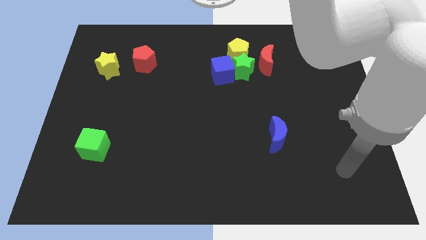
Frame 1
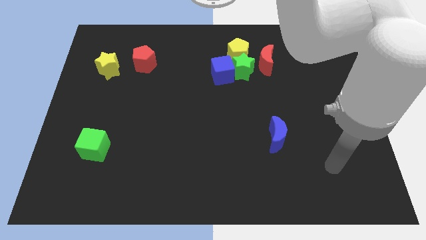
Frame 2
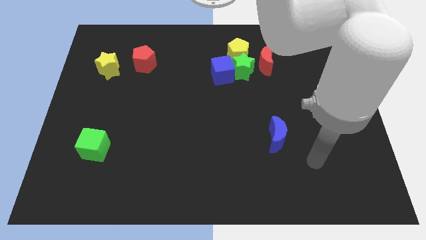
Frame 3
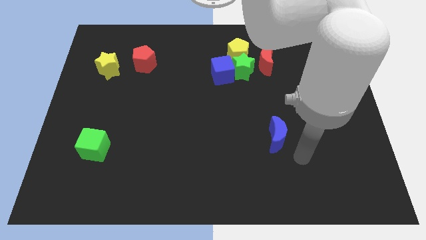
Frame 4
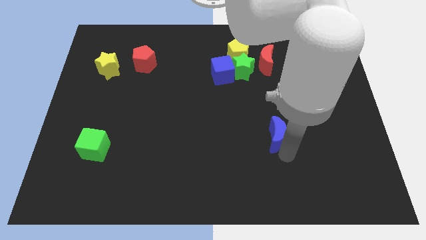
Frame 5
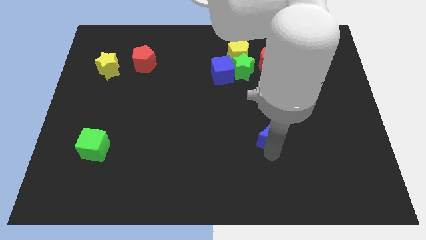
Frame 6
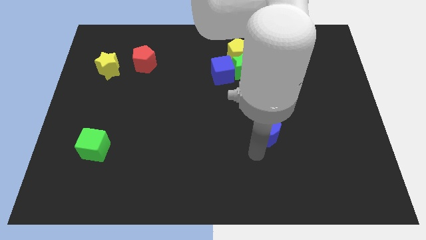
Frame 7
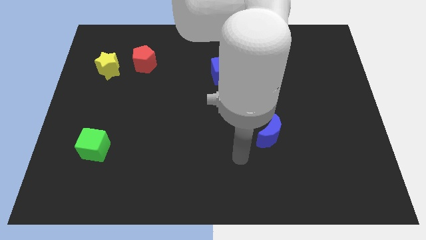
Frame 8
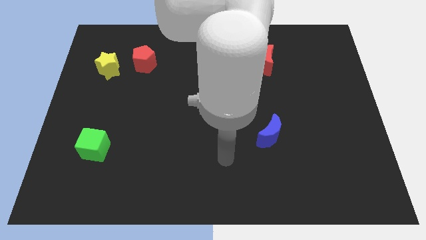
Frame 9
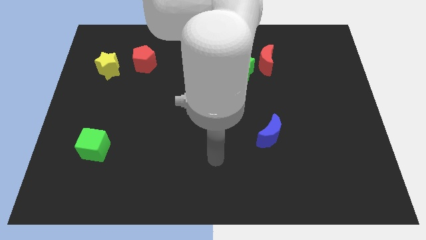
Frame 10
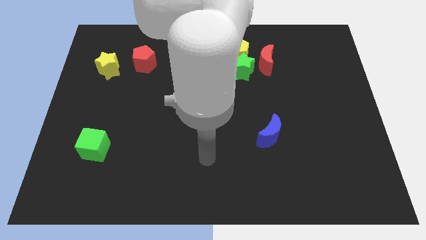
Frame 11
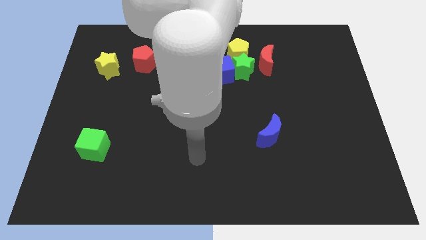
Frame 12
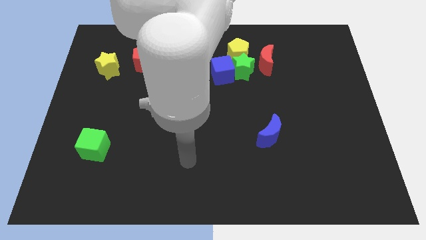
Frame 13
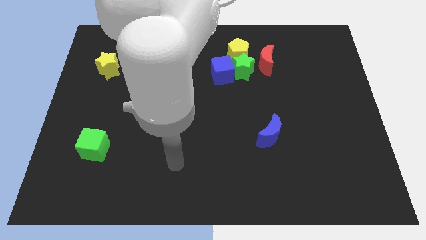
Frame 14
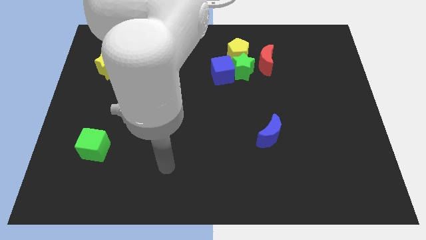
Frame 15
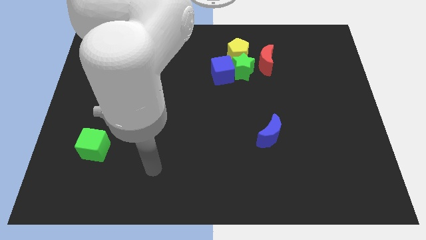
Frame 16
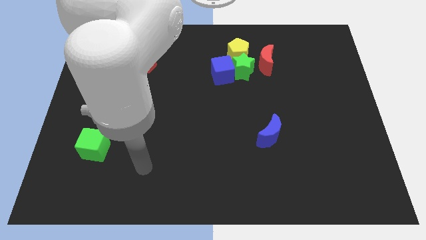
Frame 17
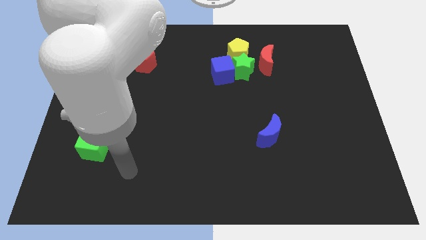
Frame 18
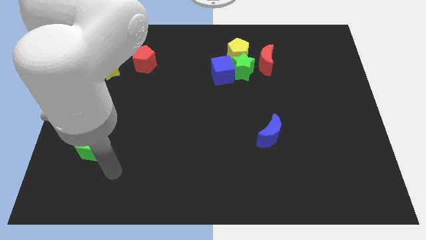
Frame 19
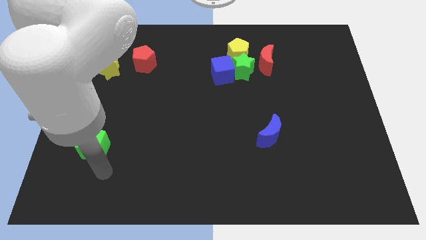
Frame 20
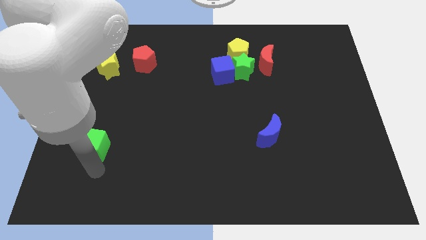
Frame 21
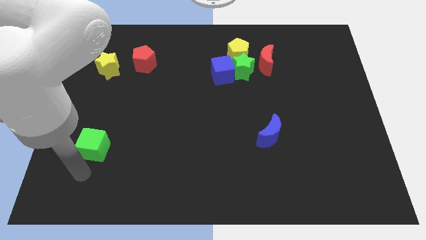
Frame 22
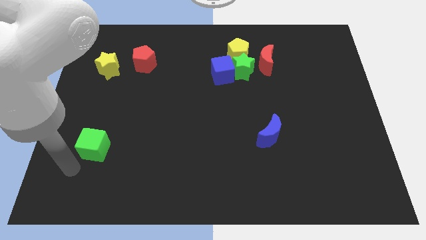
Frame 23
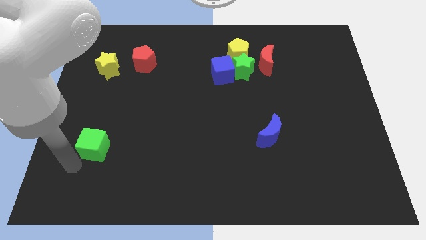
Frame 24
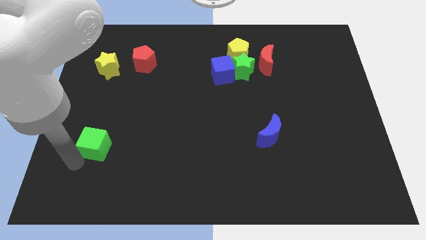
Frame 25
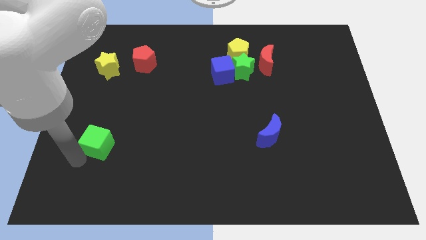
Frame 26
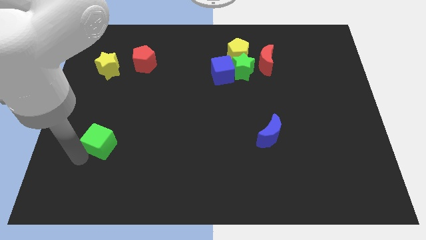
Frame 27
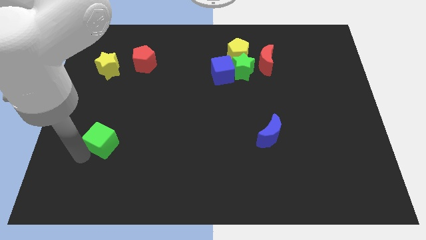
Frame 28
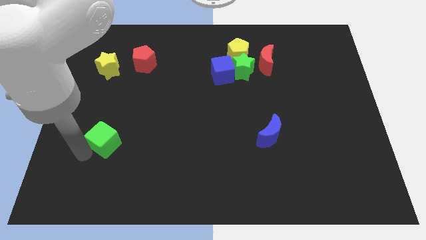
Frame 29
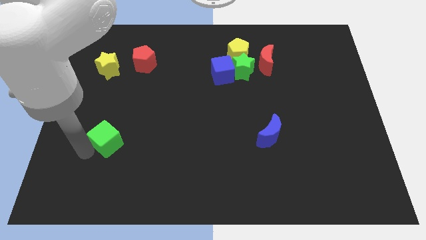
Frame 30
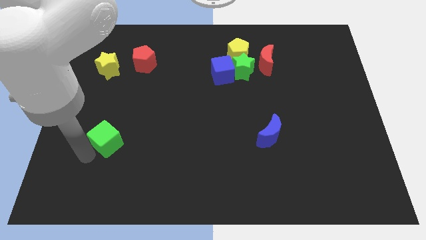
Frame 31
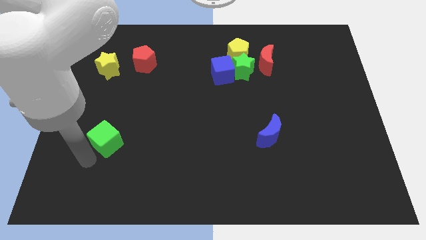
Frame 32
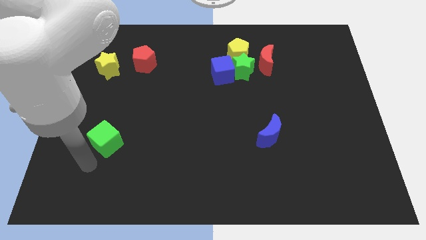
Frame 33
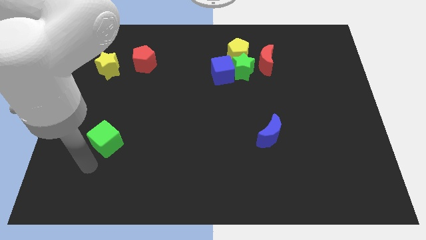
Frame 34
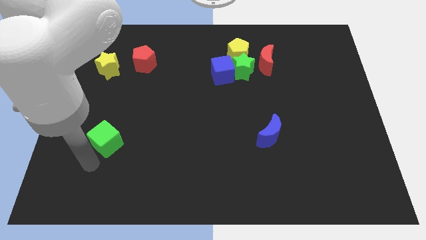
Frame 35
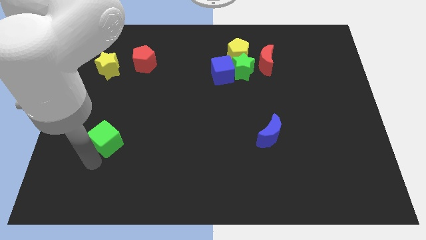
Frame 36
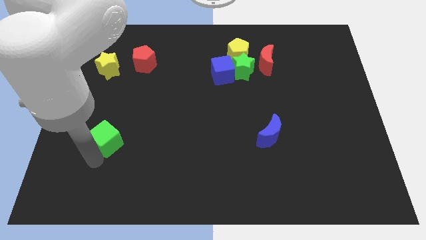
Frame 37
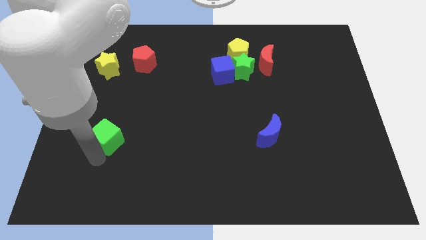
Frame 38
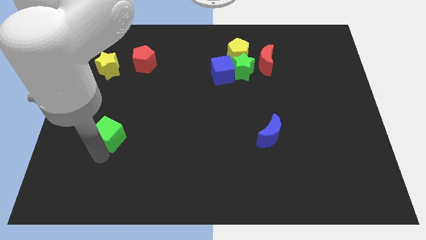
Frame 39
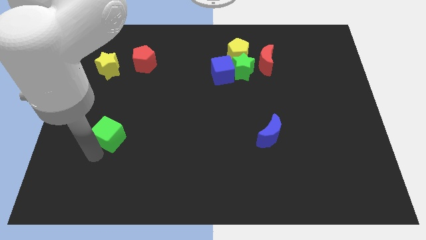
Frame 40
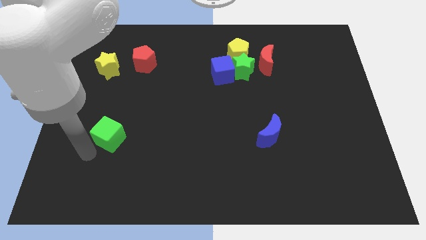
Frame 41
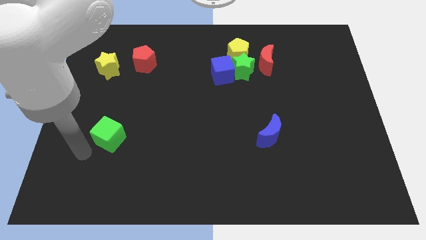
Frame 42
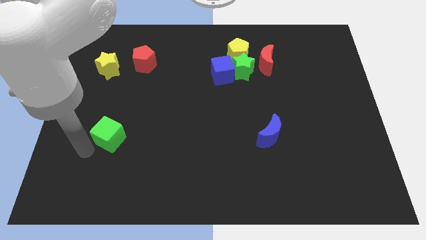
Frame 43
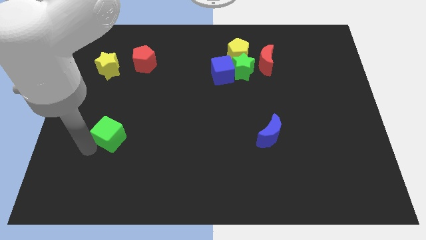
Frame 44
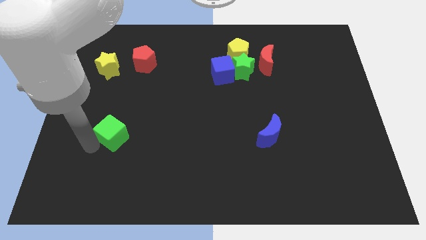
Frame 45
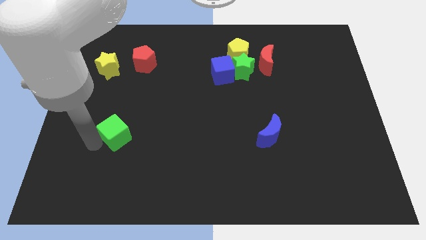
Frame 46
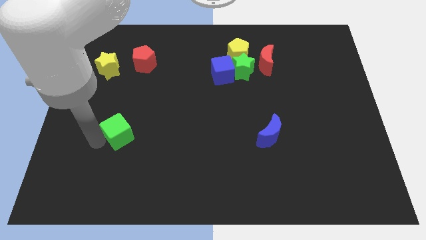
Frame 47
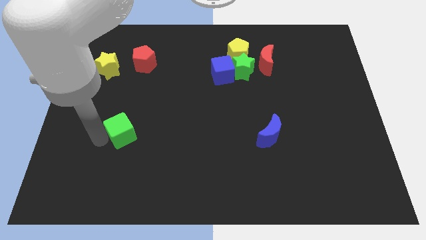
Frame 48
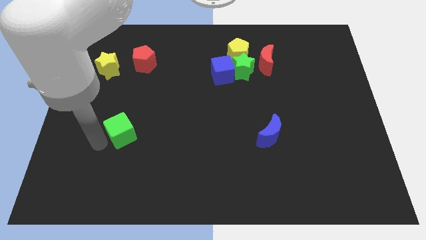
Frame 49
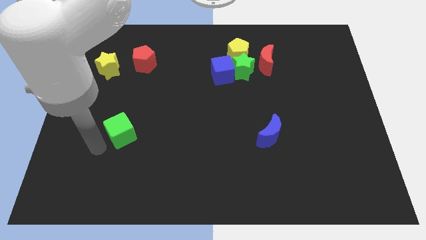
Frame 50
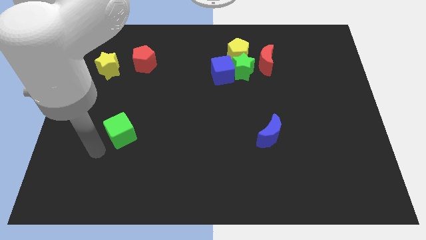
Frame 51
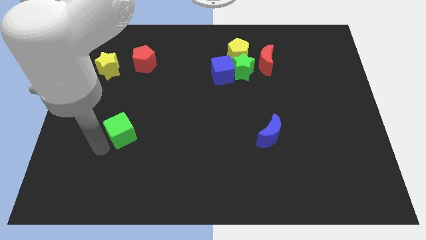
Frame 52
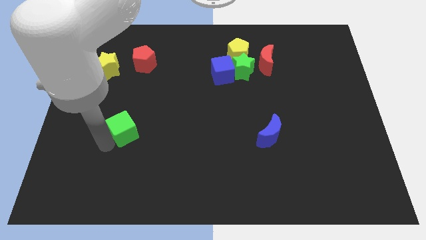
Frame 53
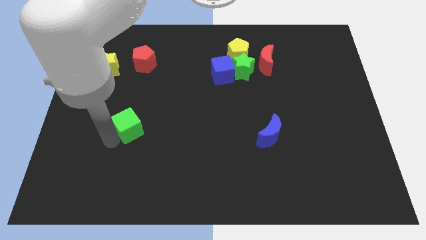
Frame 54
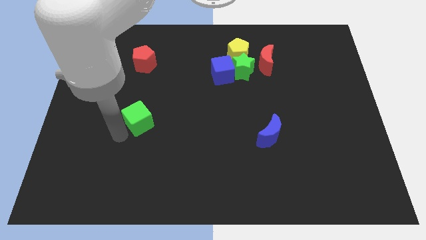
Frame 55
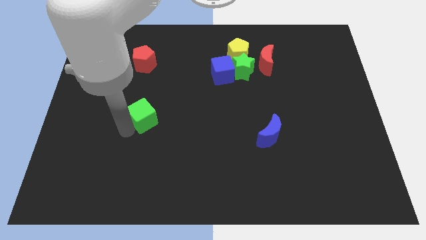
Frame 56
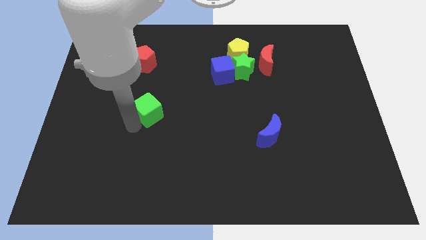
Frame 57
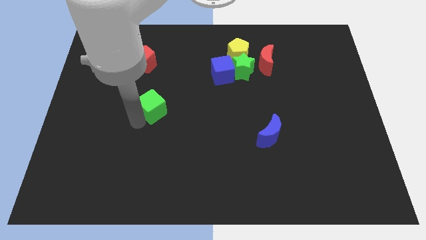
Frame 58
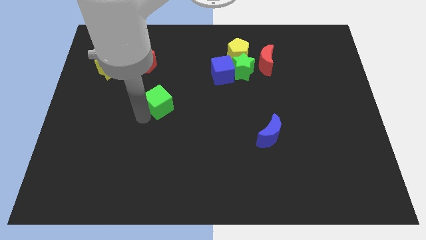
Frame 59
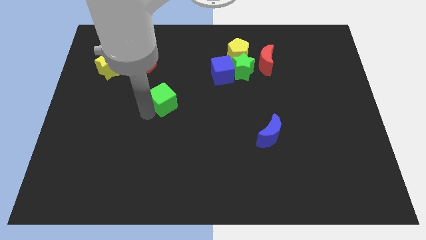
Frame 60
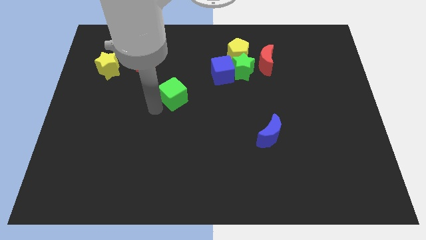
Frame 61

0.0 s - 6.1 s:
slide the green cube upwards and then right

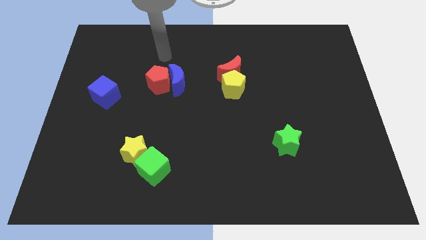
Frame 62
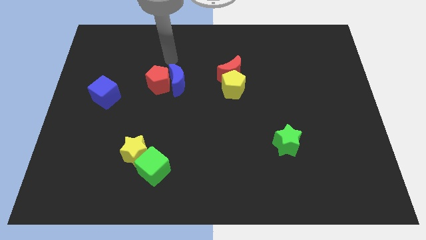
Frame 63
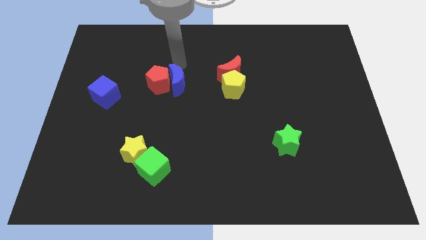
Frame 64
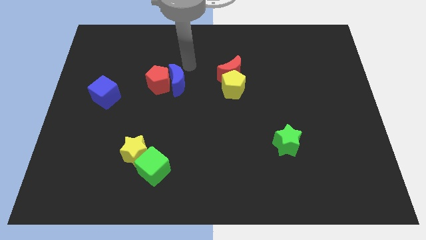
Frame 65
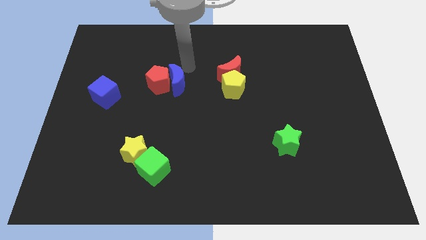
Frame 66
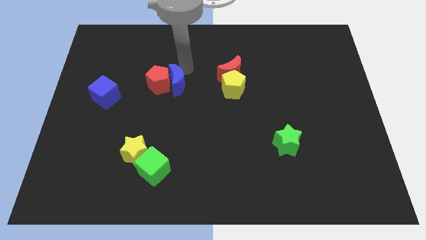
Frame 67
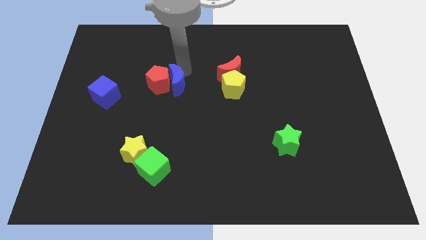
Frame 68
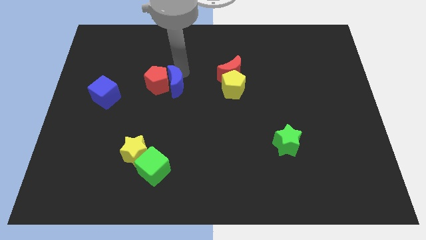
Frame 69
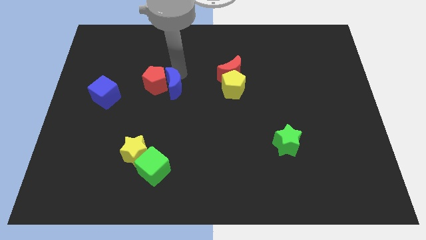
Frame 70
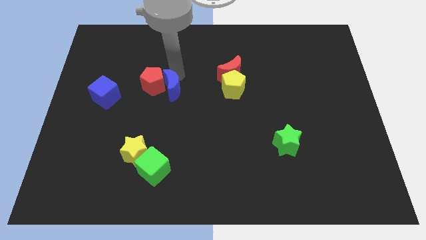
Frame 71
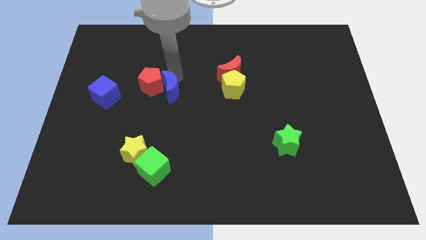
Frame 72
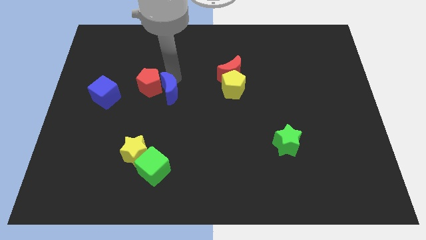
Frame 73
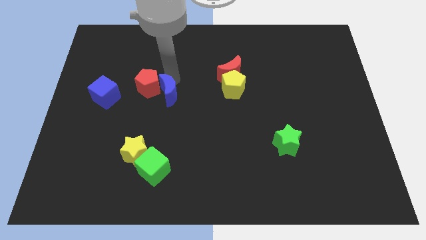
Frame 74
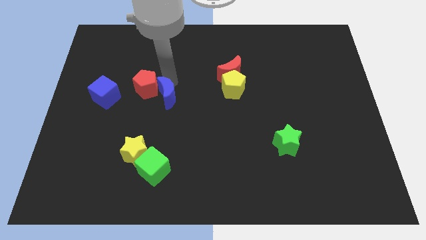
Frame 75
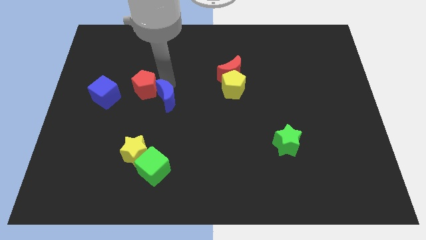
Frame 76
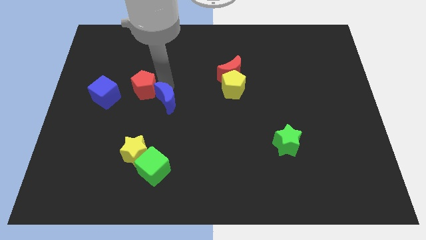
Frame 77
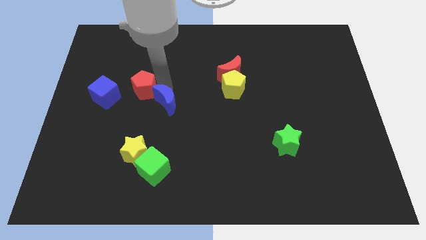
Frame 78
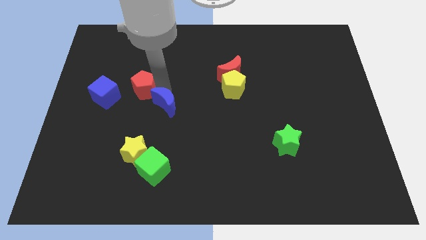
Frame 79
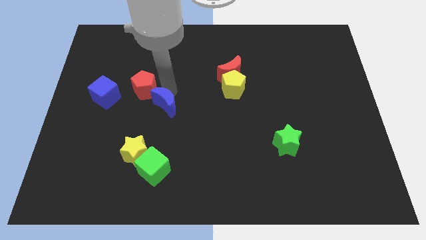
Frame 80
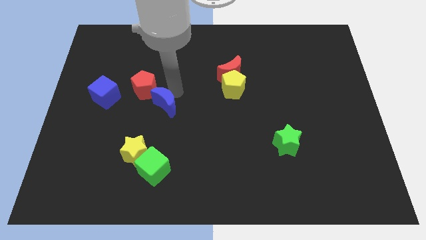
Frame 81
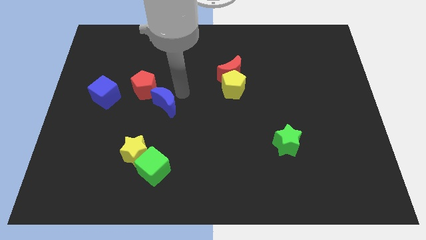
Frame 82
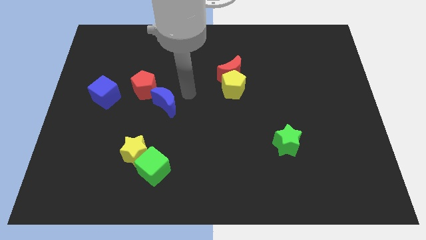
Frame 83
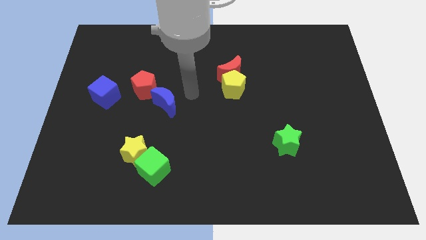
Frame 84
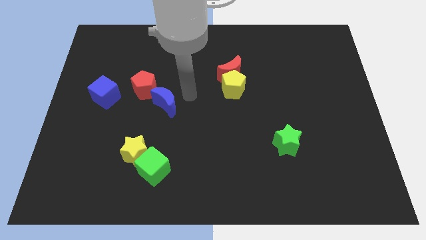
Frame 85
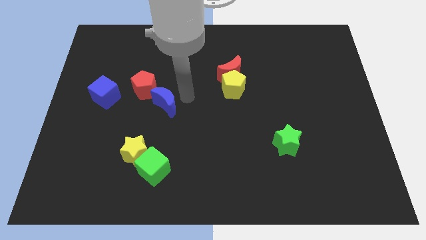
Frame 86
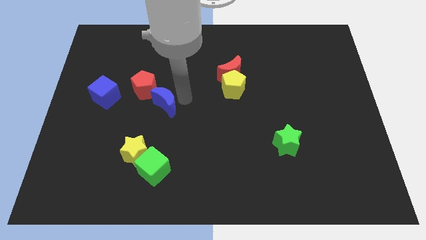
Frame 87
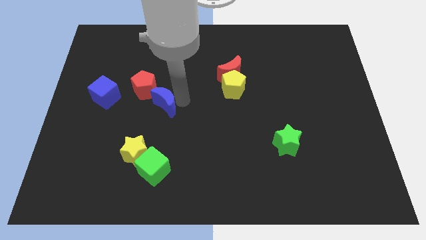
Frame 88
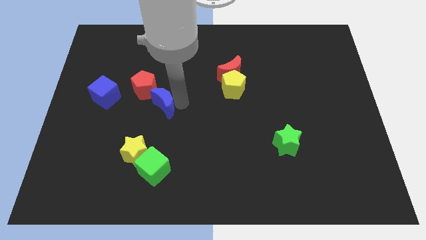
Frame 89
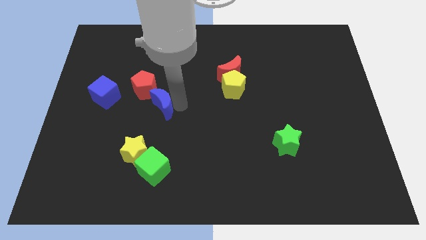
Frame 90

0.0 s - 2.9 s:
slide the blue moon diagonally down and left a bit
